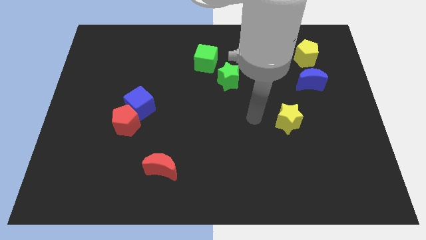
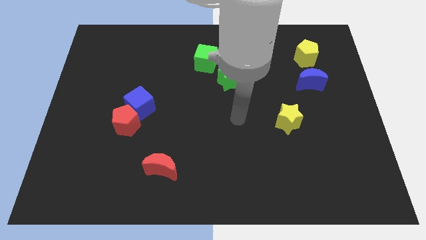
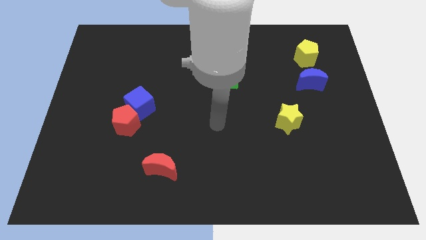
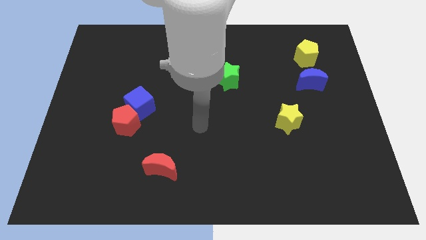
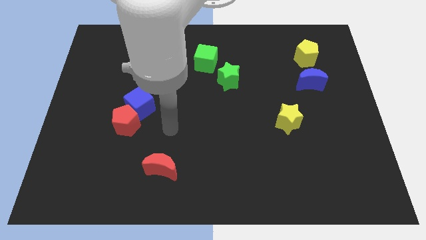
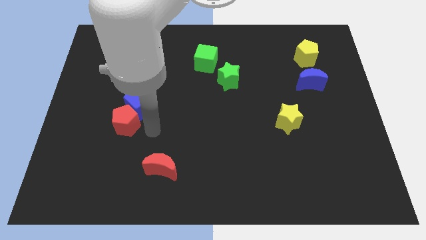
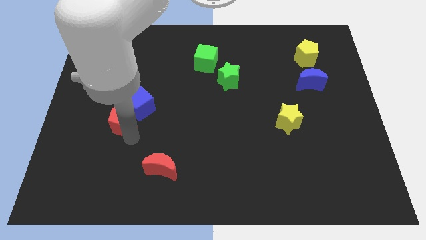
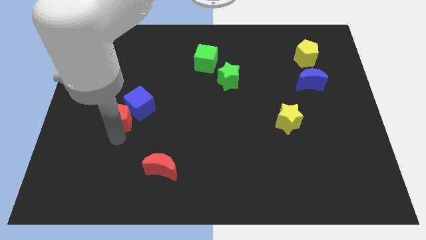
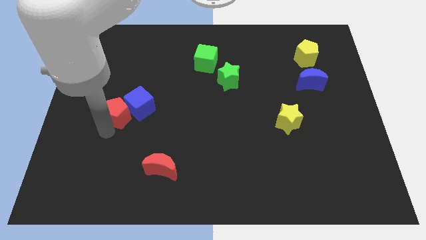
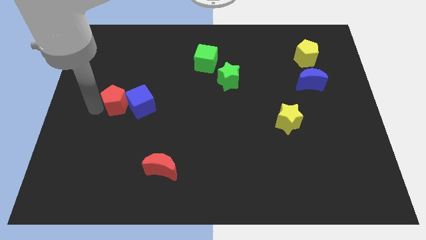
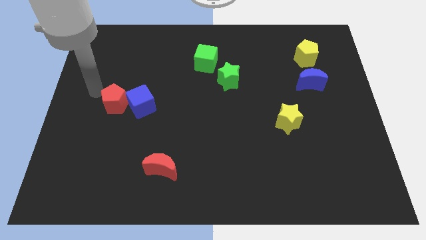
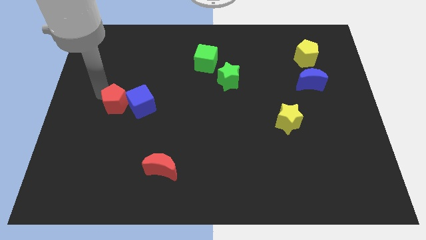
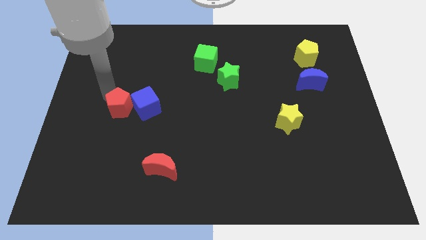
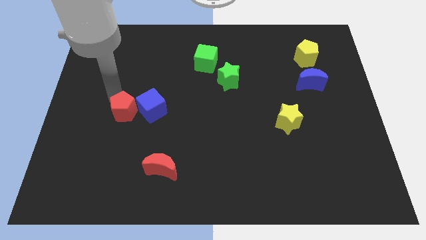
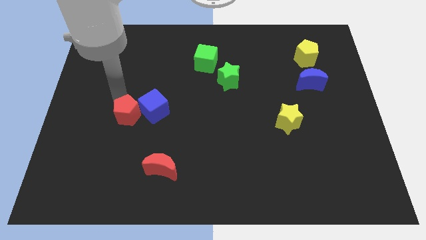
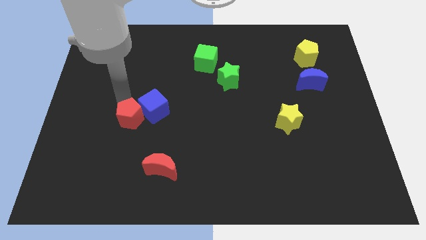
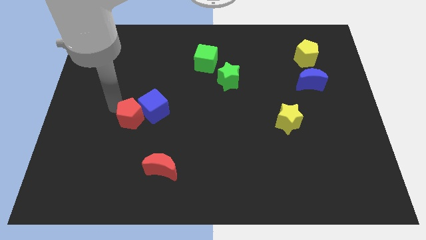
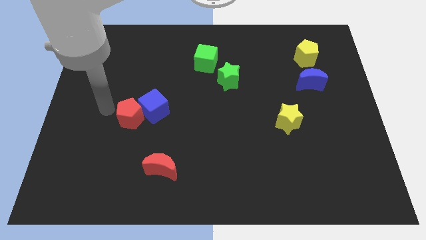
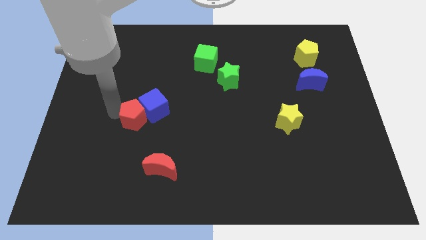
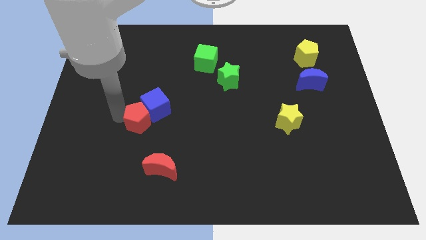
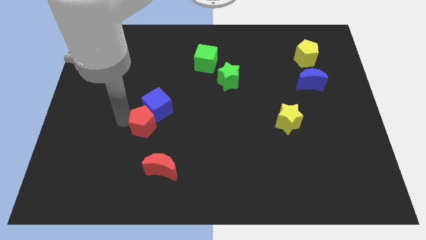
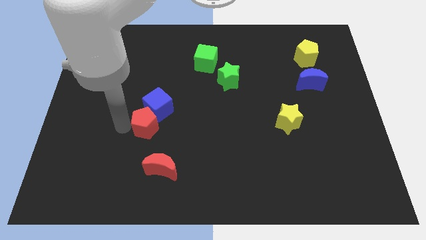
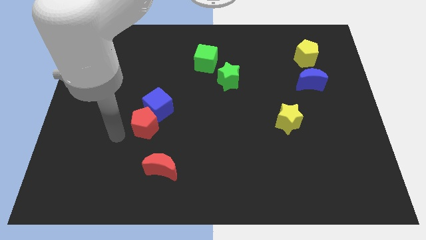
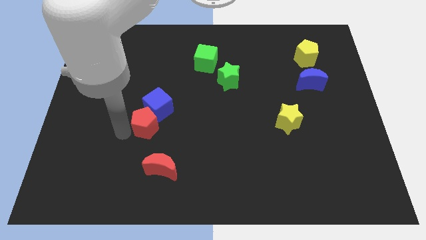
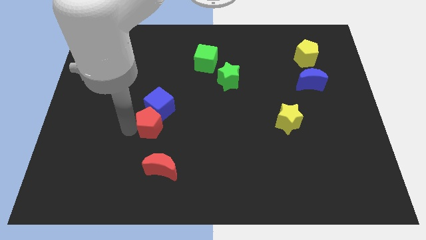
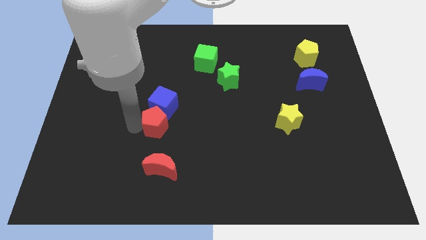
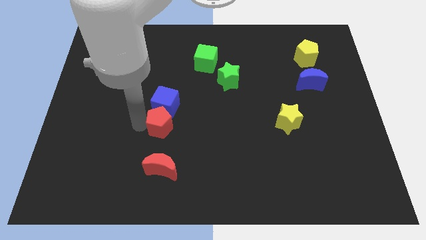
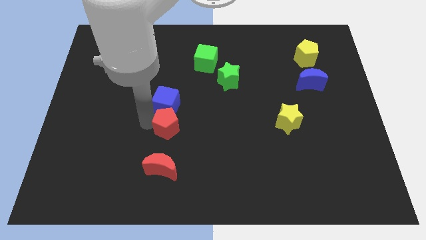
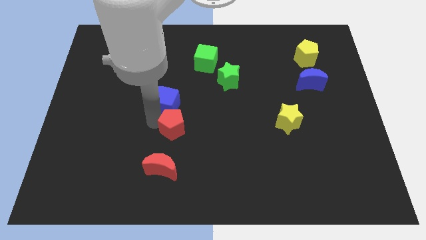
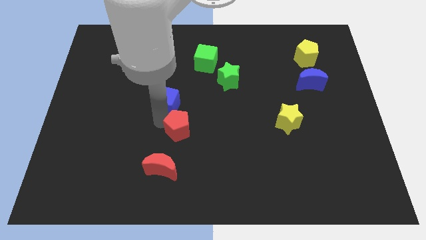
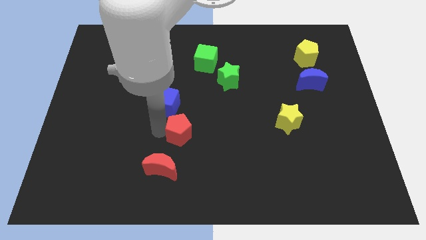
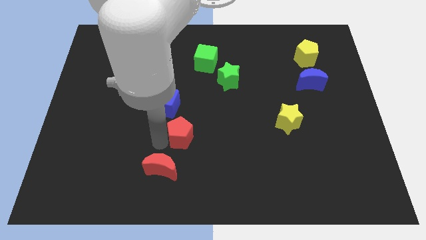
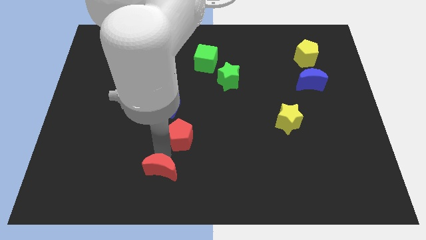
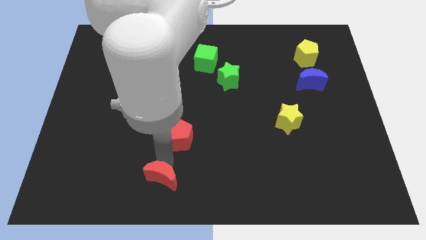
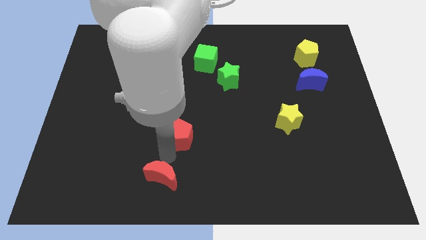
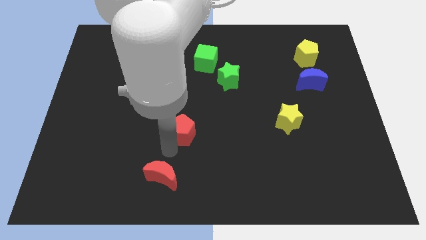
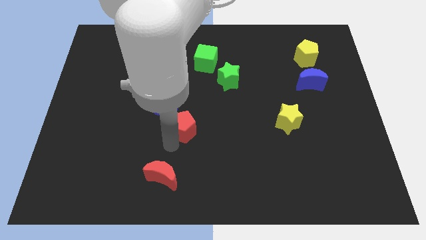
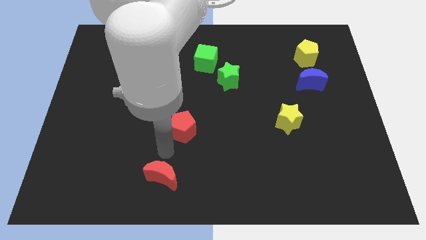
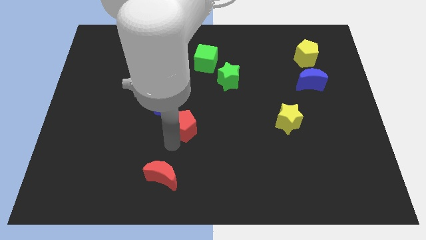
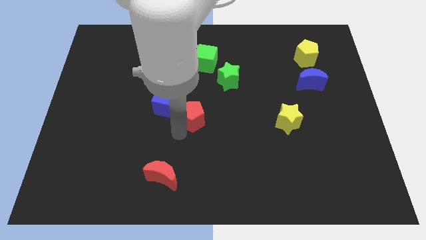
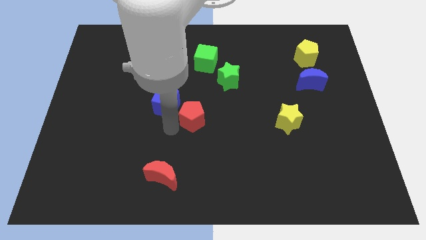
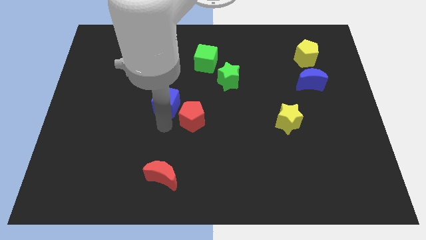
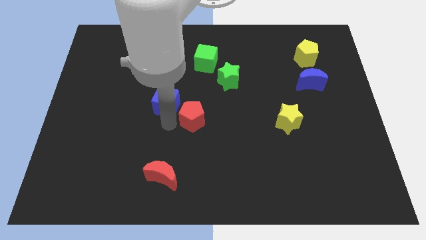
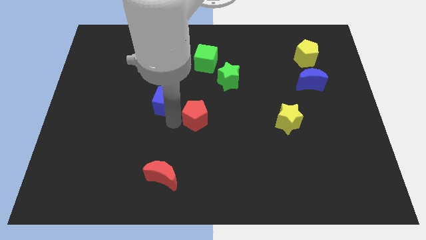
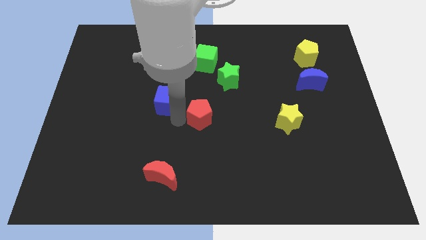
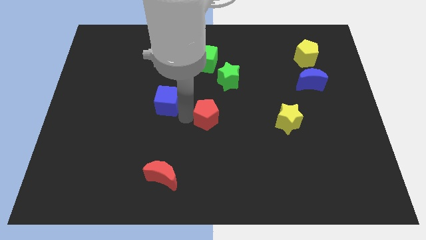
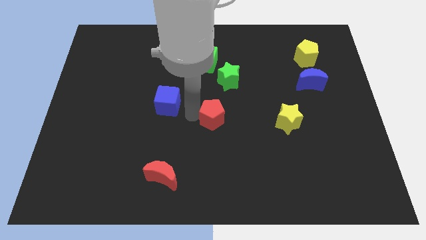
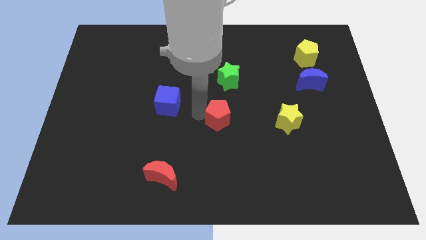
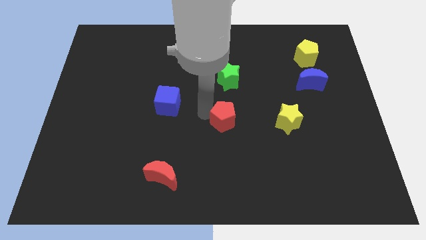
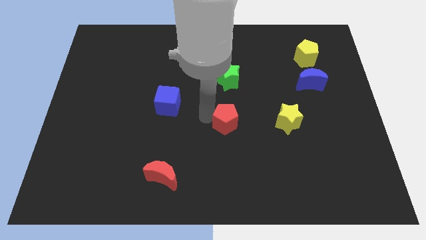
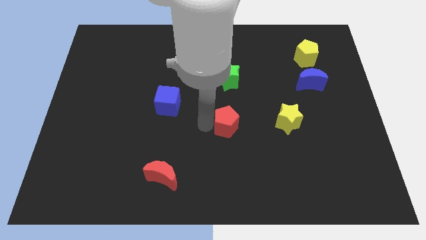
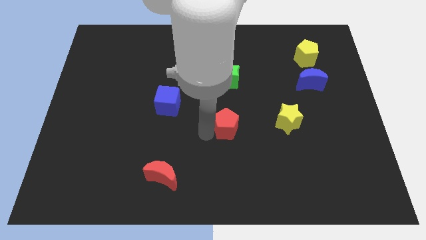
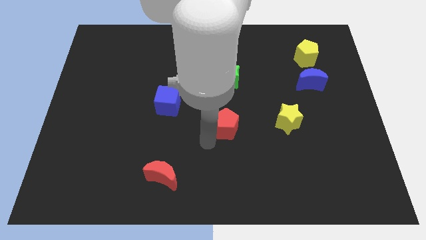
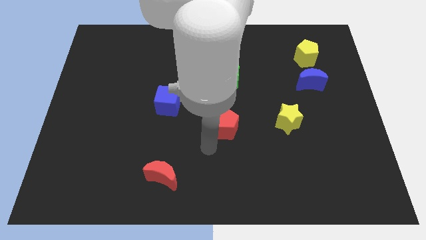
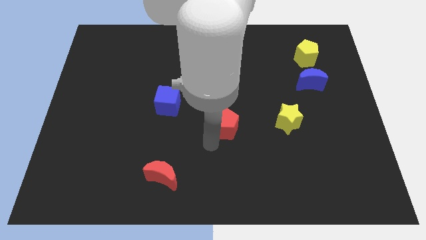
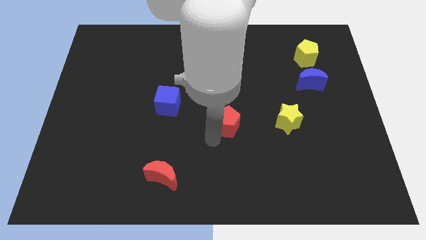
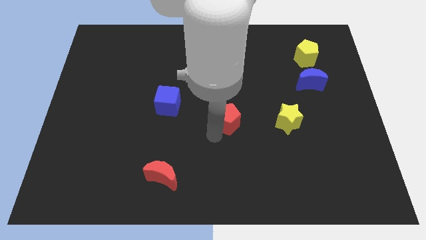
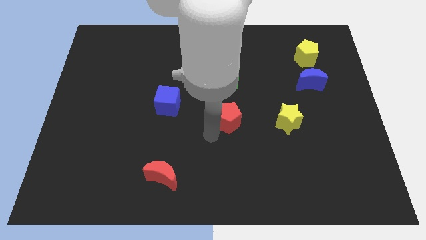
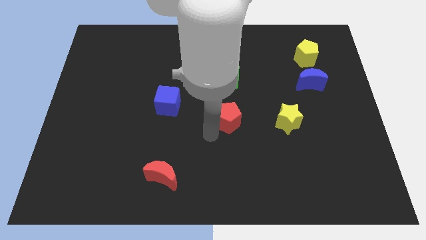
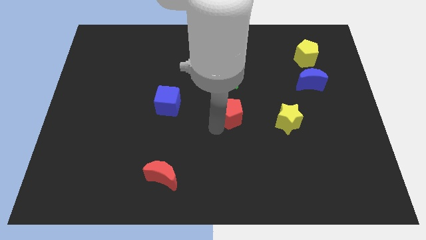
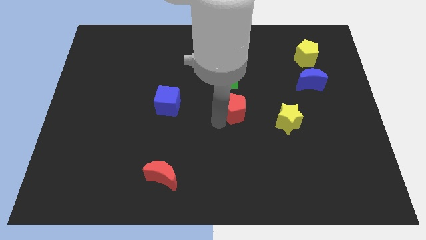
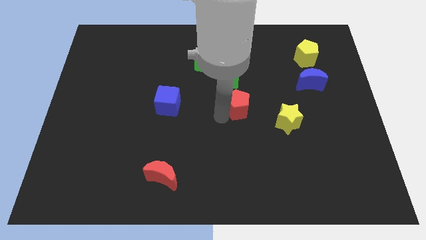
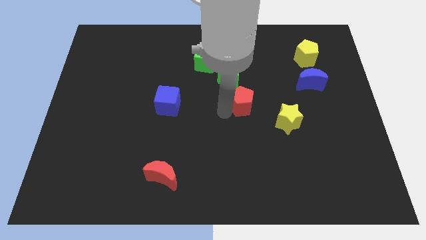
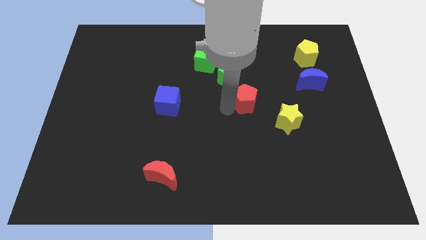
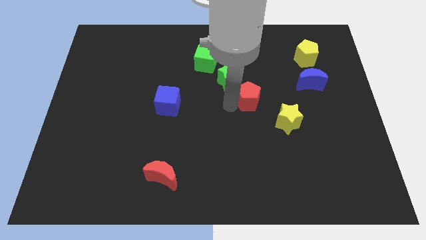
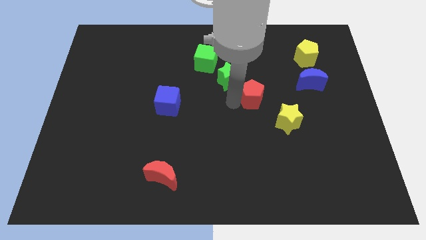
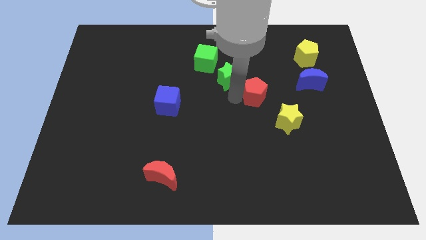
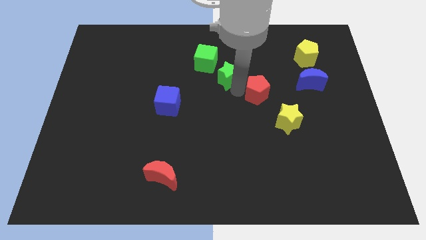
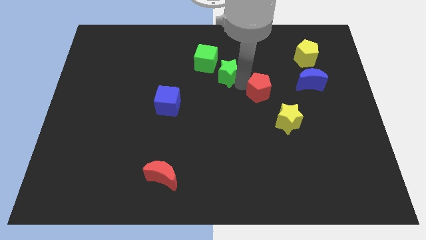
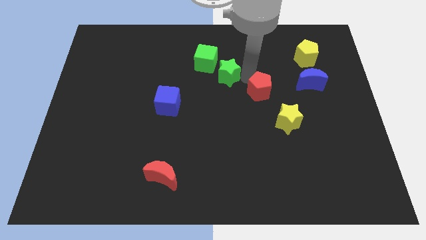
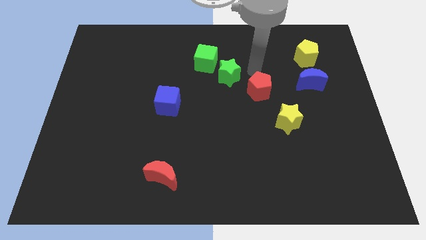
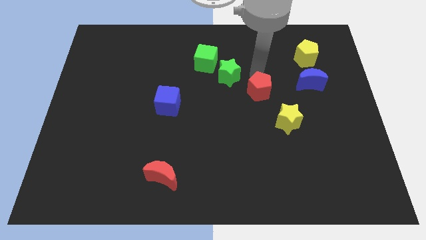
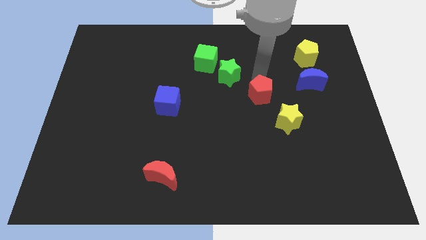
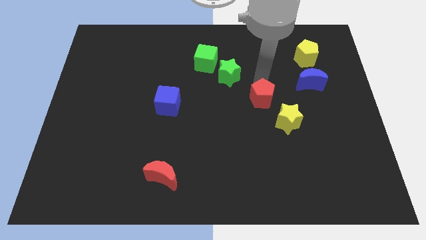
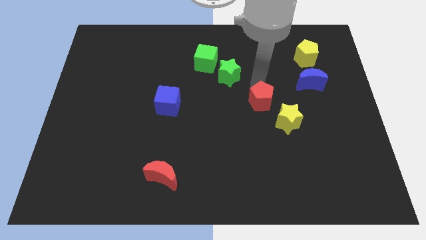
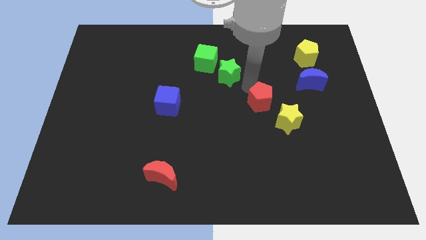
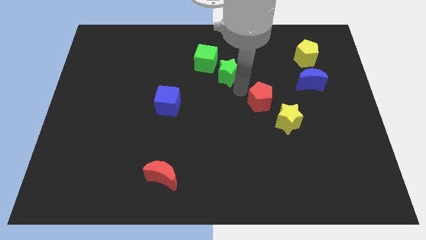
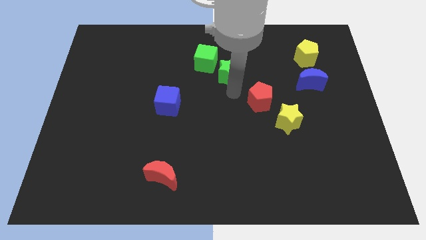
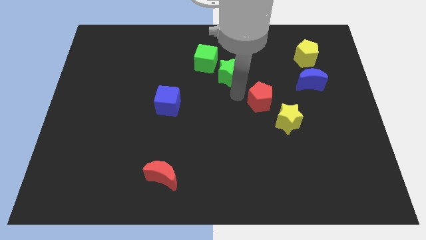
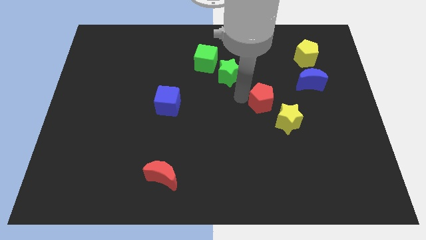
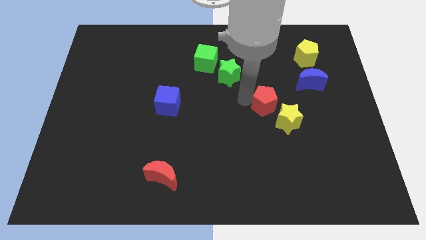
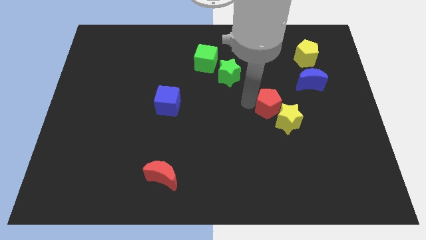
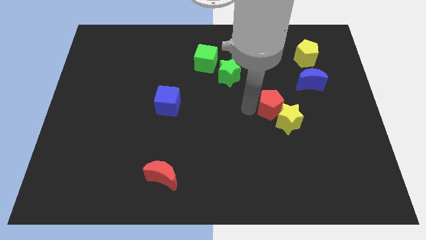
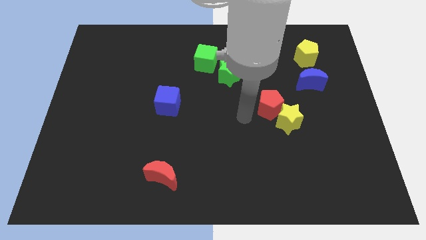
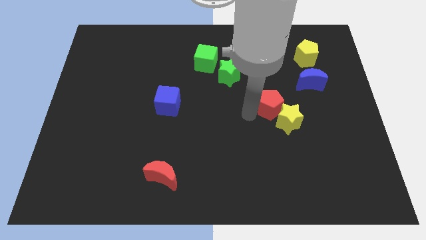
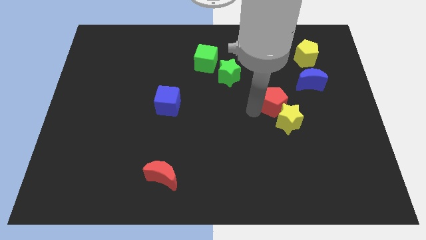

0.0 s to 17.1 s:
slide the red pentagon diagonally down and to the left of the blue moon
